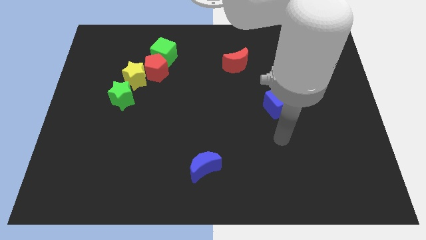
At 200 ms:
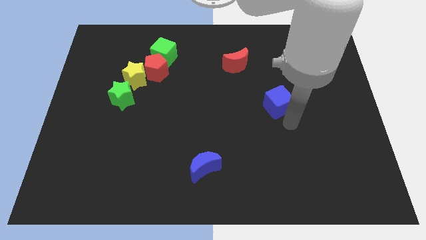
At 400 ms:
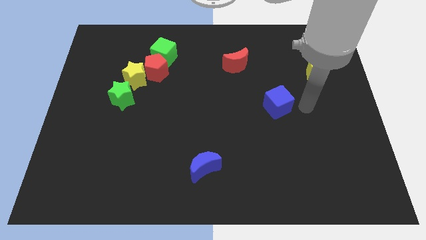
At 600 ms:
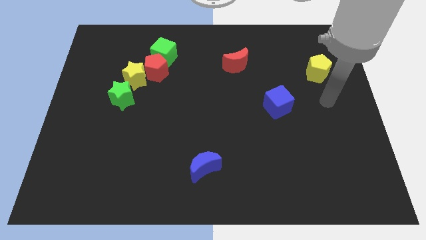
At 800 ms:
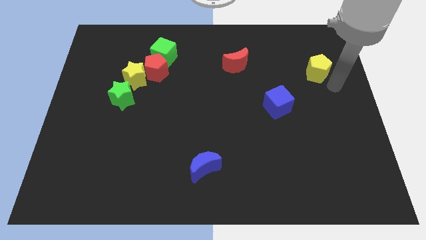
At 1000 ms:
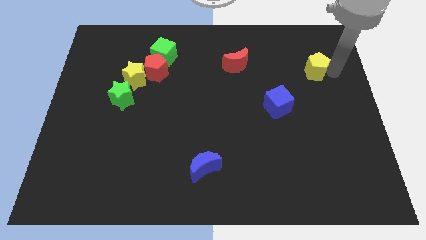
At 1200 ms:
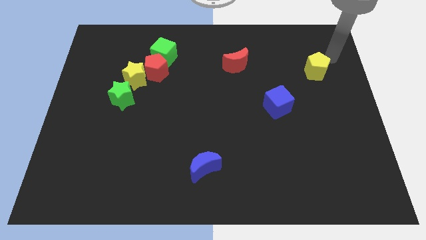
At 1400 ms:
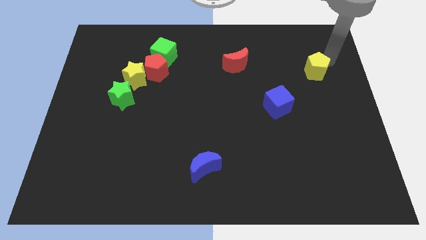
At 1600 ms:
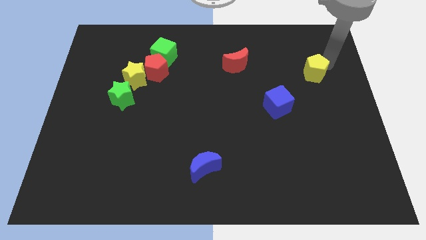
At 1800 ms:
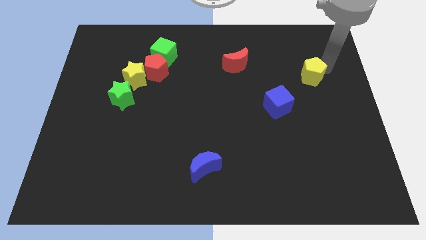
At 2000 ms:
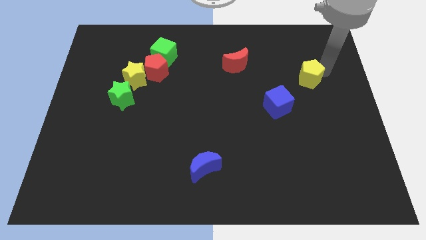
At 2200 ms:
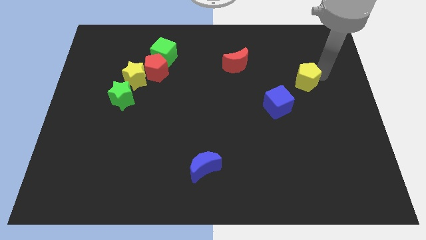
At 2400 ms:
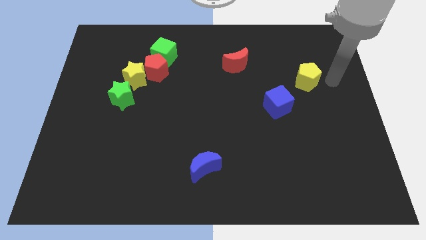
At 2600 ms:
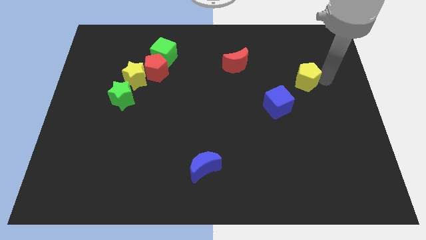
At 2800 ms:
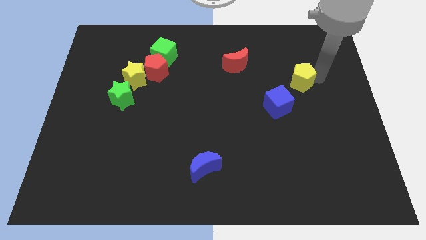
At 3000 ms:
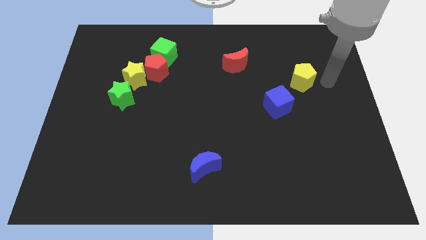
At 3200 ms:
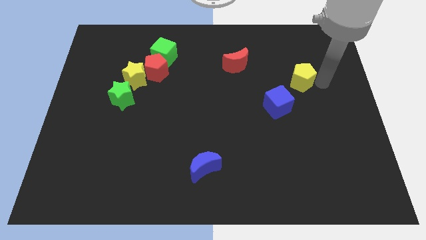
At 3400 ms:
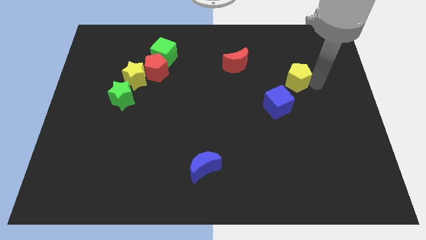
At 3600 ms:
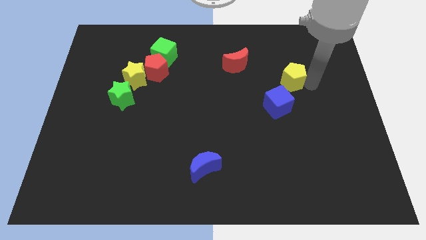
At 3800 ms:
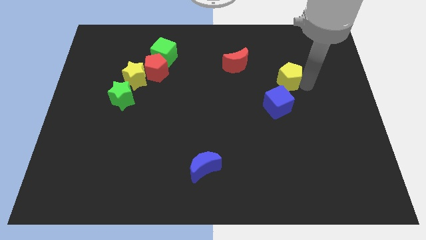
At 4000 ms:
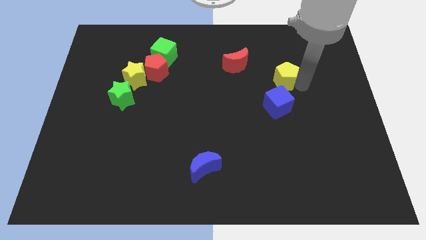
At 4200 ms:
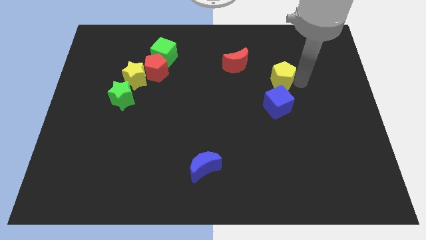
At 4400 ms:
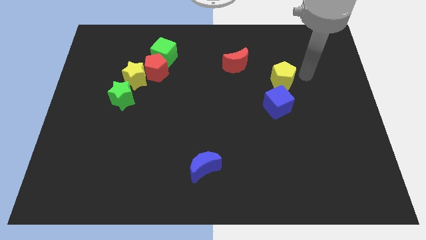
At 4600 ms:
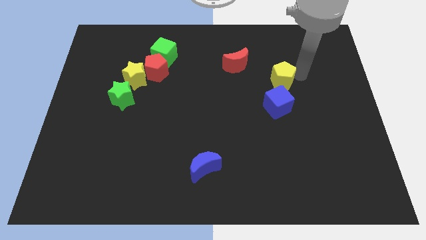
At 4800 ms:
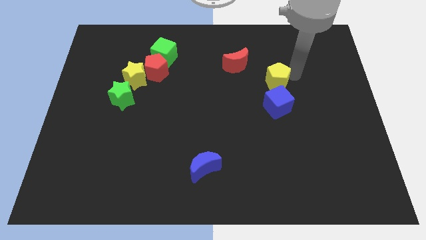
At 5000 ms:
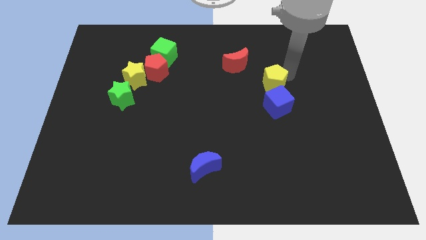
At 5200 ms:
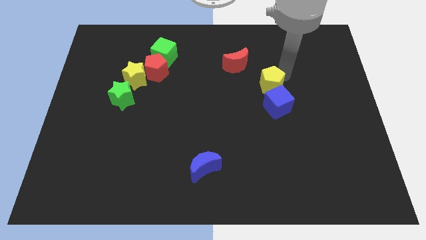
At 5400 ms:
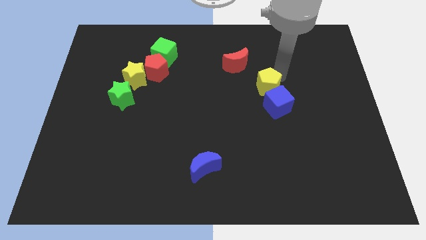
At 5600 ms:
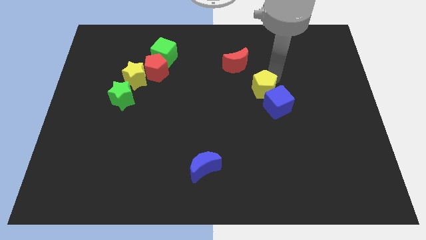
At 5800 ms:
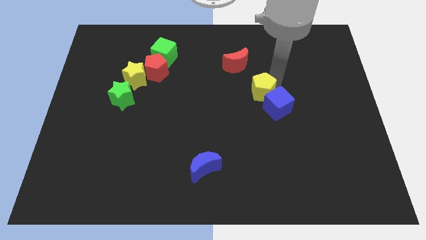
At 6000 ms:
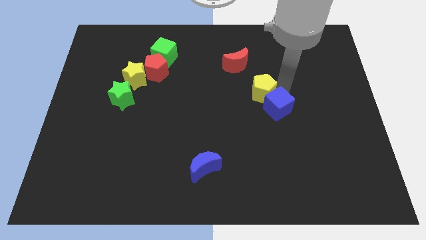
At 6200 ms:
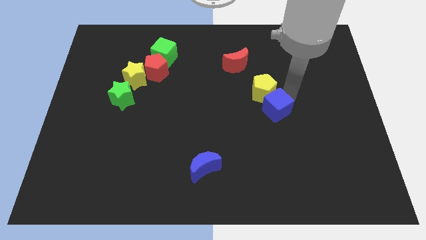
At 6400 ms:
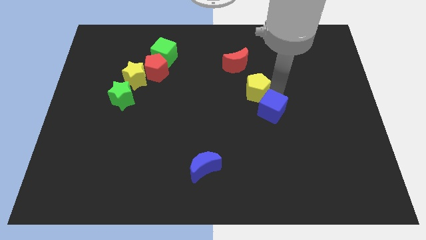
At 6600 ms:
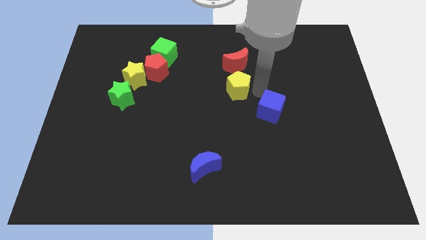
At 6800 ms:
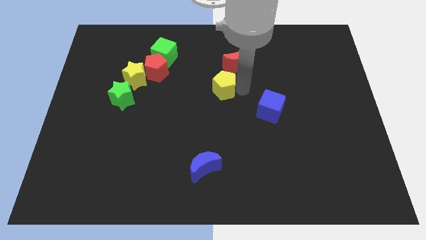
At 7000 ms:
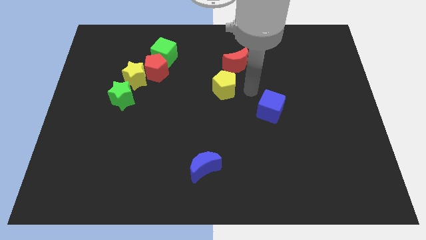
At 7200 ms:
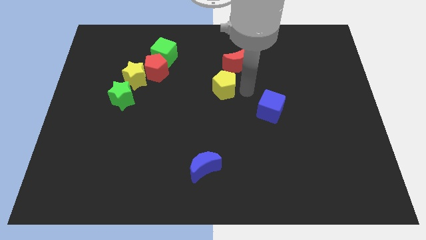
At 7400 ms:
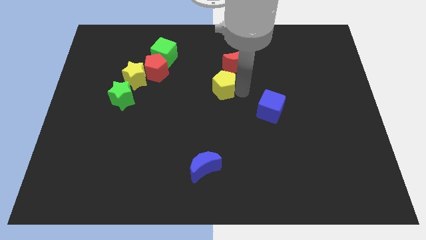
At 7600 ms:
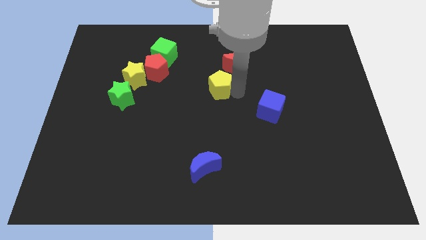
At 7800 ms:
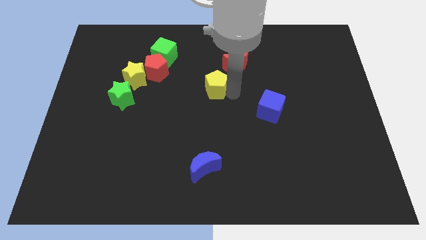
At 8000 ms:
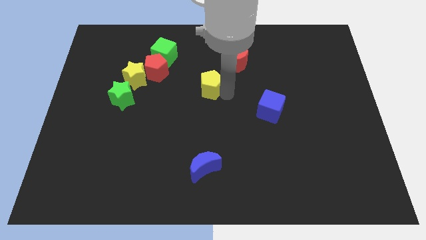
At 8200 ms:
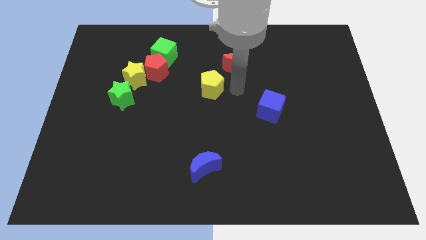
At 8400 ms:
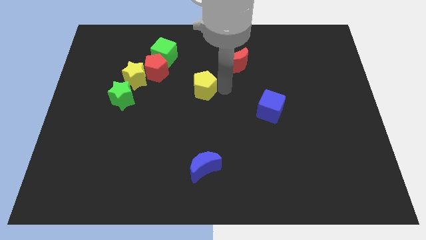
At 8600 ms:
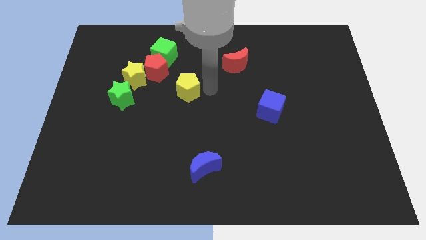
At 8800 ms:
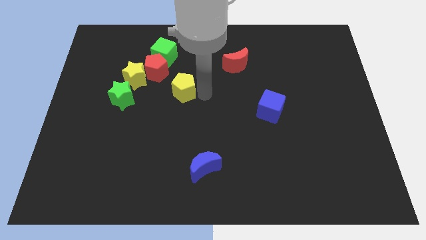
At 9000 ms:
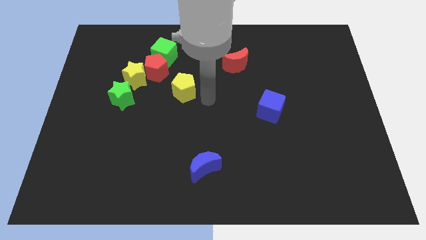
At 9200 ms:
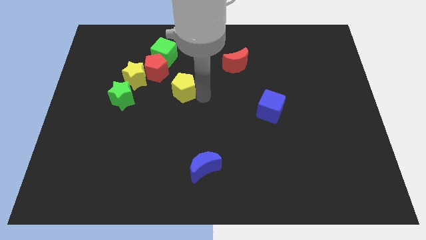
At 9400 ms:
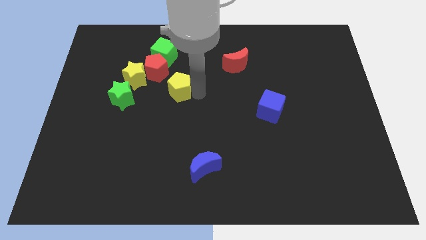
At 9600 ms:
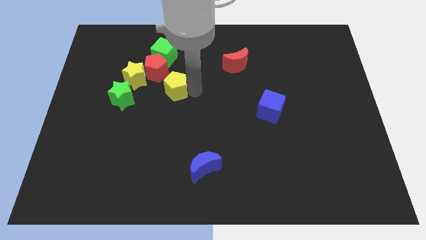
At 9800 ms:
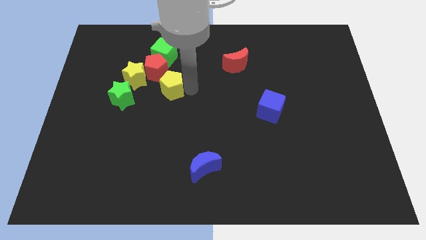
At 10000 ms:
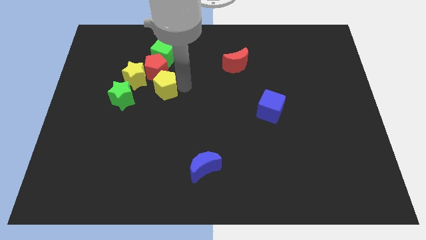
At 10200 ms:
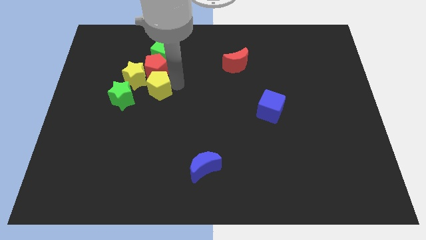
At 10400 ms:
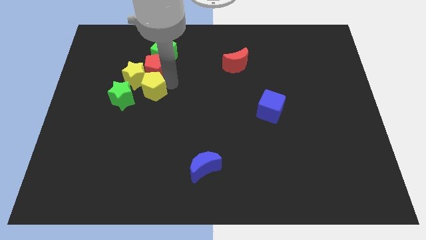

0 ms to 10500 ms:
put the yellow pentagon close to the yellow star

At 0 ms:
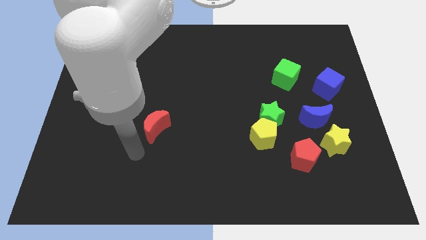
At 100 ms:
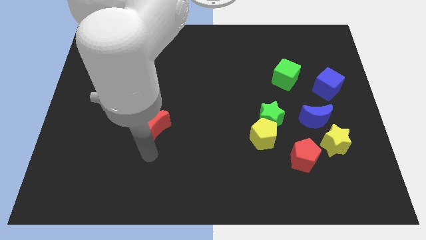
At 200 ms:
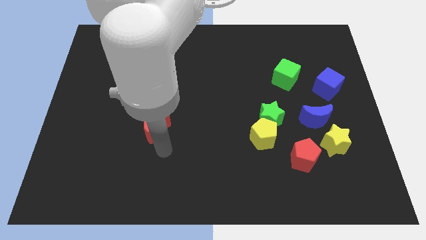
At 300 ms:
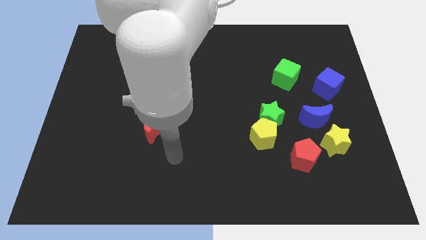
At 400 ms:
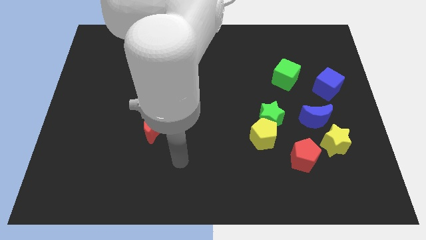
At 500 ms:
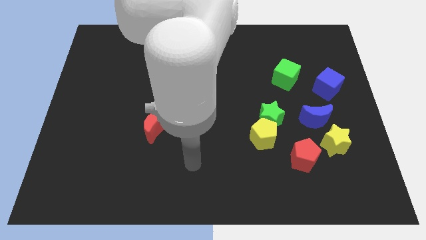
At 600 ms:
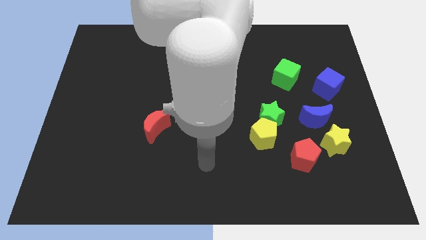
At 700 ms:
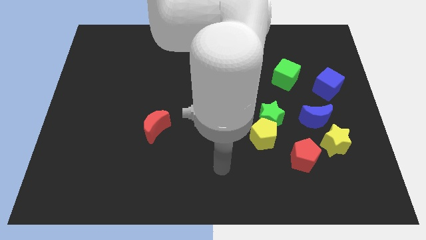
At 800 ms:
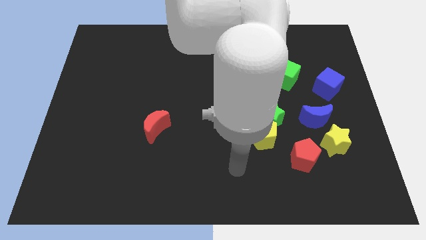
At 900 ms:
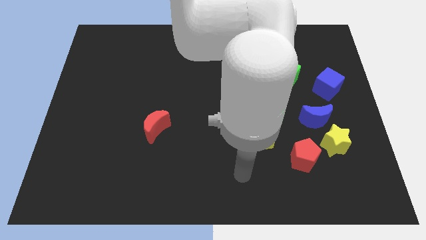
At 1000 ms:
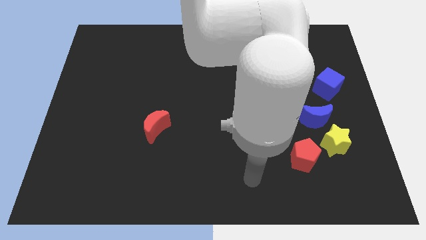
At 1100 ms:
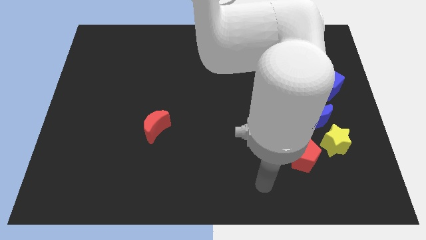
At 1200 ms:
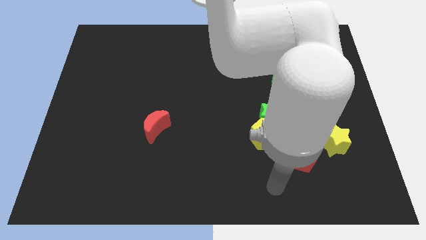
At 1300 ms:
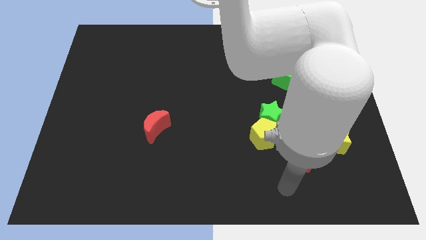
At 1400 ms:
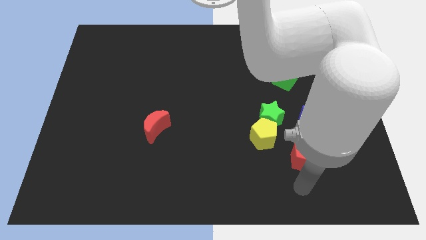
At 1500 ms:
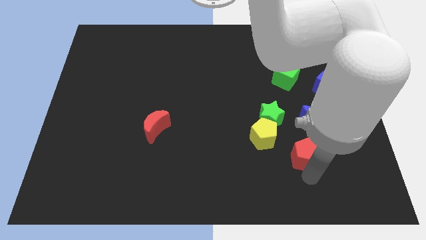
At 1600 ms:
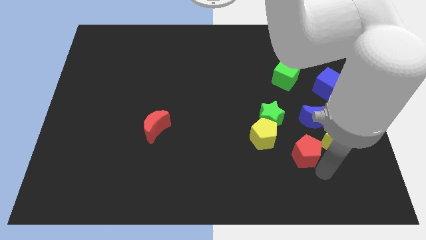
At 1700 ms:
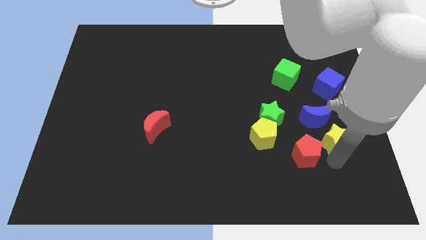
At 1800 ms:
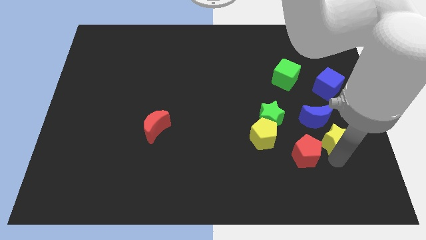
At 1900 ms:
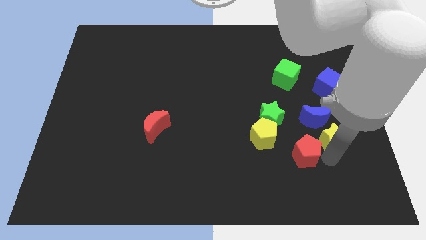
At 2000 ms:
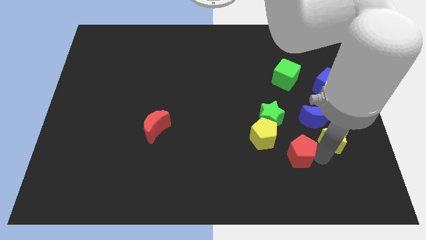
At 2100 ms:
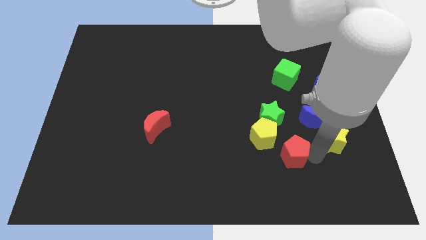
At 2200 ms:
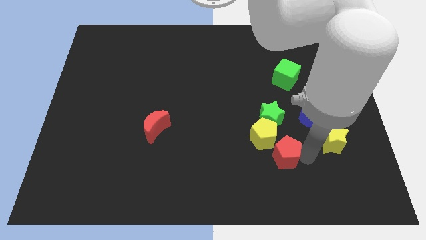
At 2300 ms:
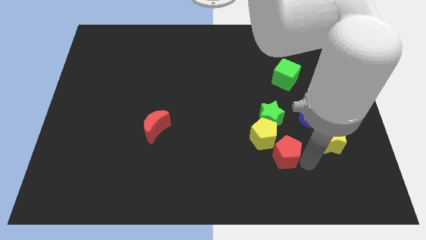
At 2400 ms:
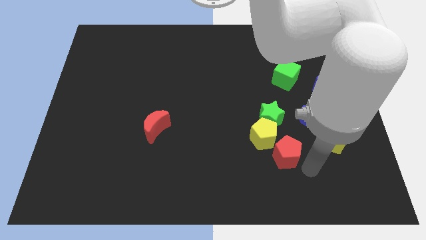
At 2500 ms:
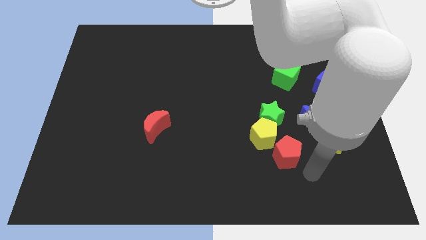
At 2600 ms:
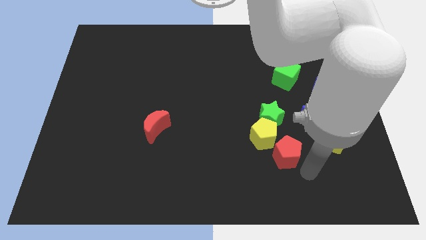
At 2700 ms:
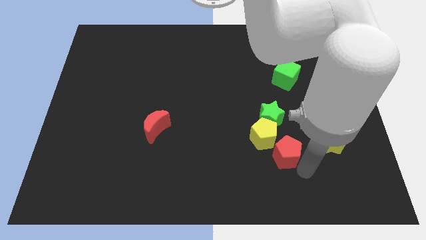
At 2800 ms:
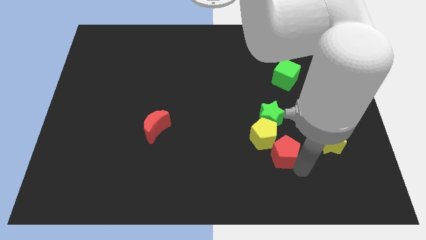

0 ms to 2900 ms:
move the red pentagon to the yellow pentagon
